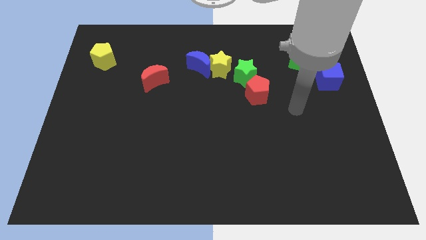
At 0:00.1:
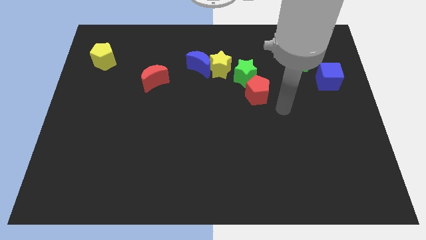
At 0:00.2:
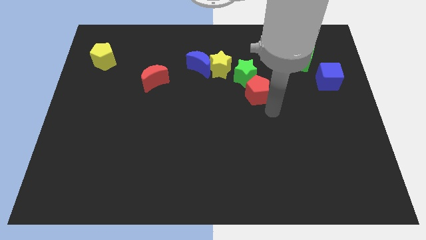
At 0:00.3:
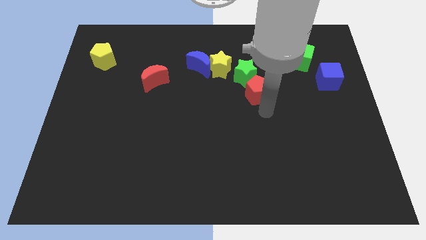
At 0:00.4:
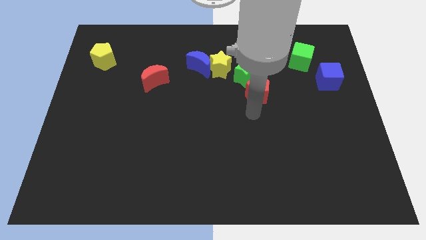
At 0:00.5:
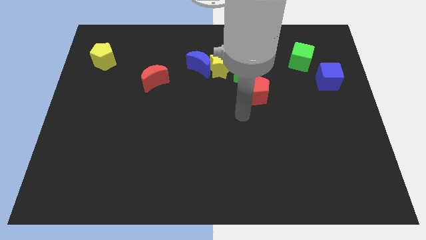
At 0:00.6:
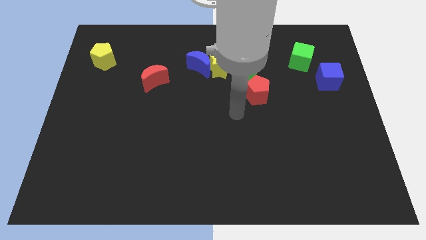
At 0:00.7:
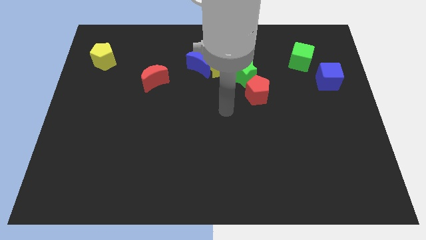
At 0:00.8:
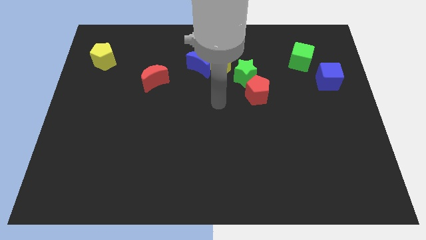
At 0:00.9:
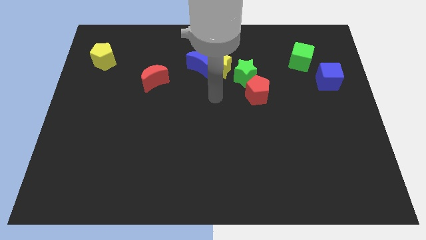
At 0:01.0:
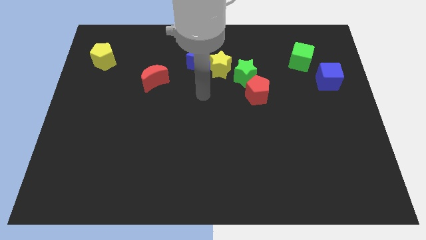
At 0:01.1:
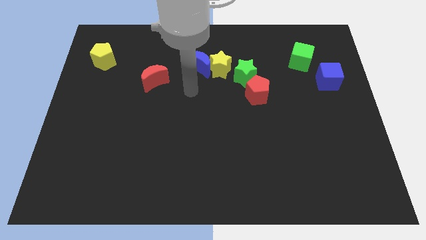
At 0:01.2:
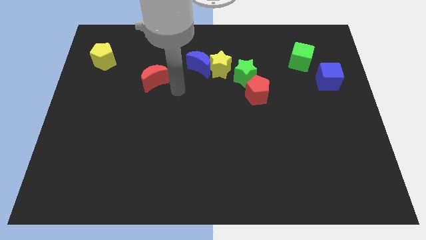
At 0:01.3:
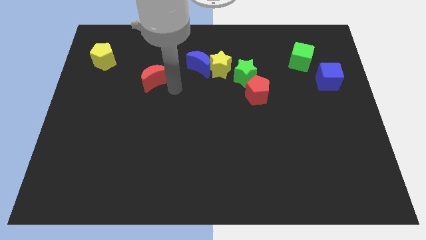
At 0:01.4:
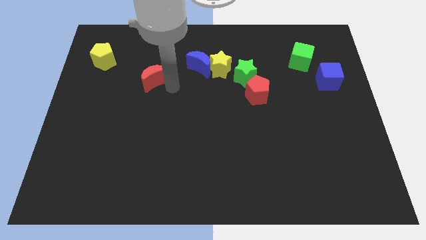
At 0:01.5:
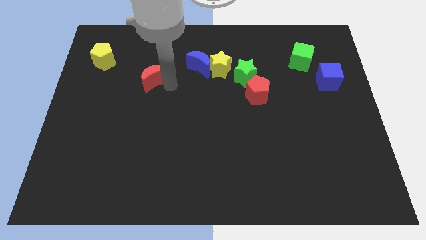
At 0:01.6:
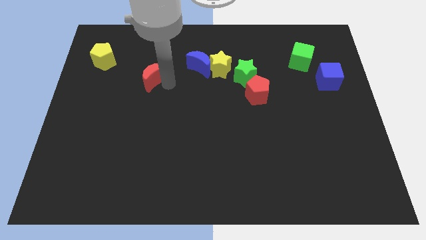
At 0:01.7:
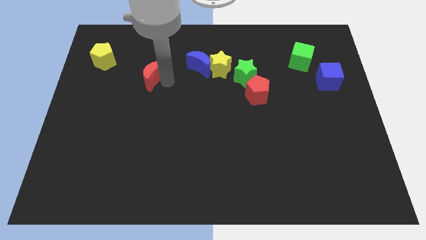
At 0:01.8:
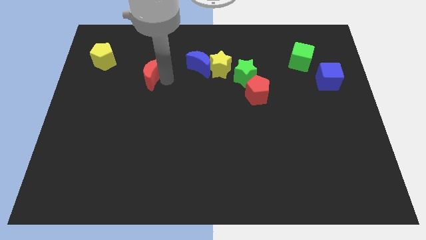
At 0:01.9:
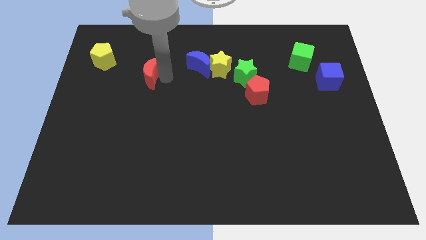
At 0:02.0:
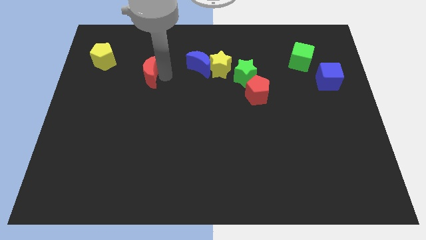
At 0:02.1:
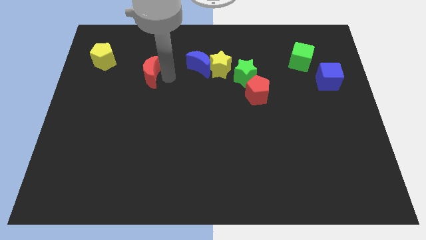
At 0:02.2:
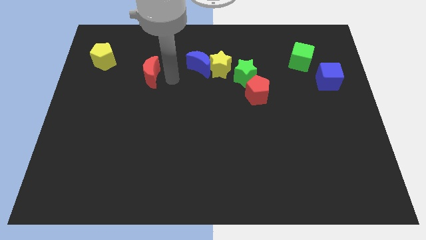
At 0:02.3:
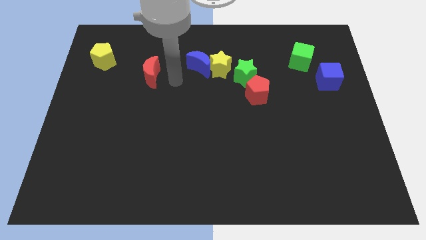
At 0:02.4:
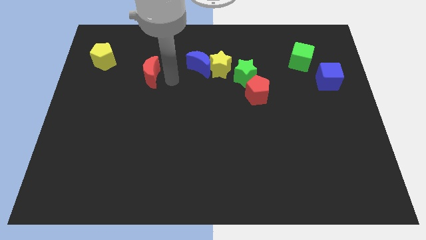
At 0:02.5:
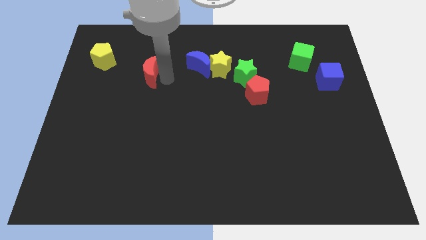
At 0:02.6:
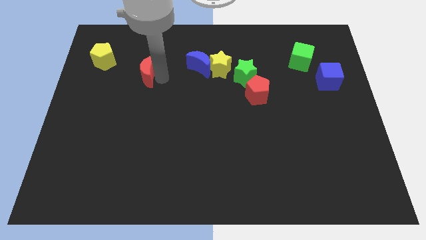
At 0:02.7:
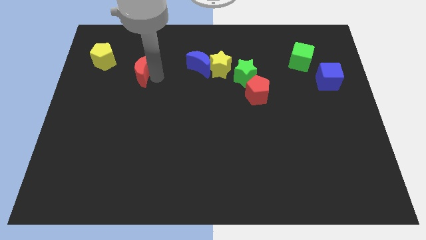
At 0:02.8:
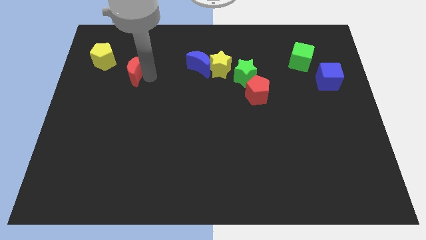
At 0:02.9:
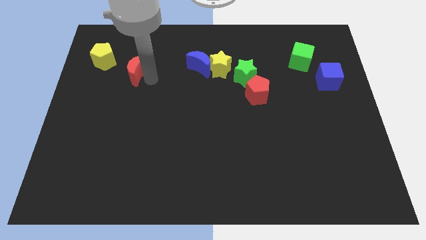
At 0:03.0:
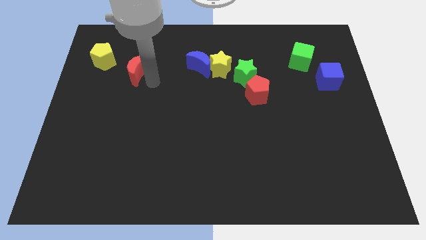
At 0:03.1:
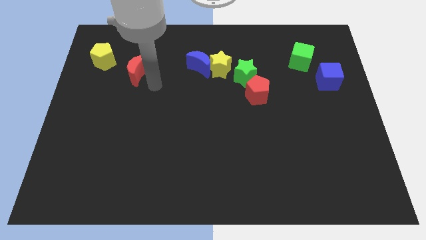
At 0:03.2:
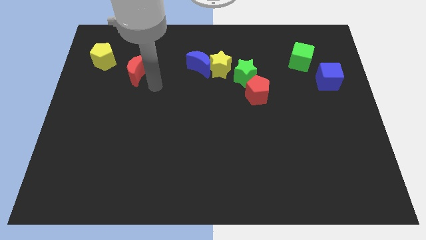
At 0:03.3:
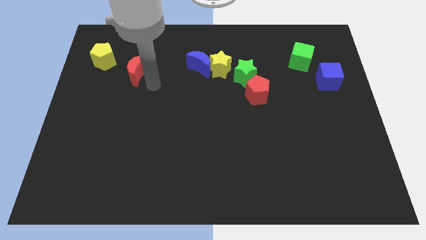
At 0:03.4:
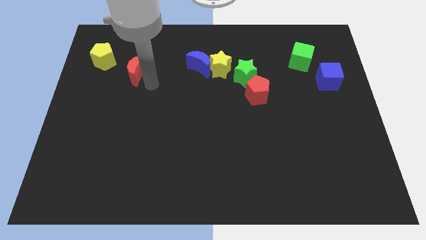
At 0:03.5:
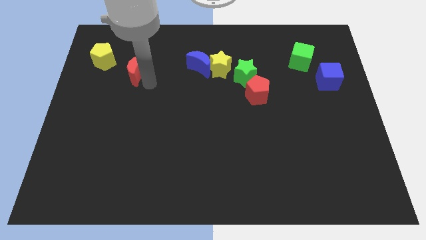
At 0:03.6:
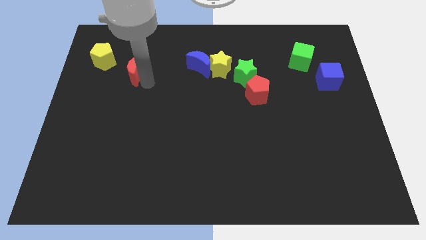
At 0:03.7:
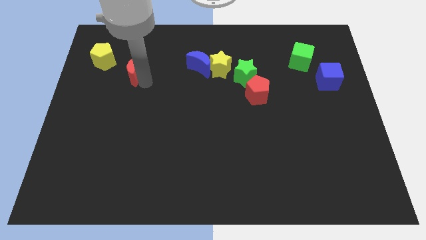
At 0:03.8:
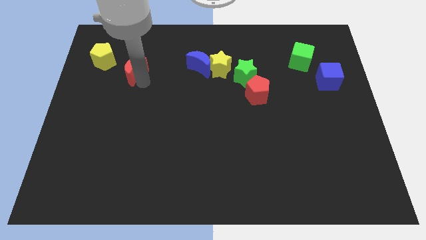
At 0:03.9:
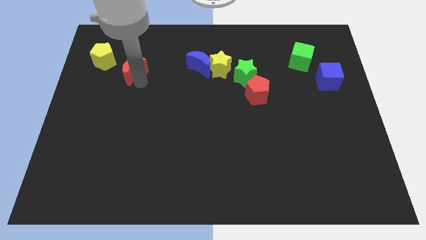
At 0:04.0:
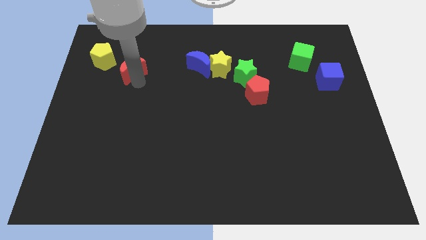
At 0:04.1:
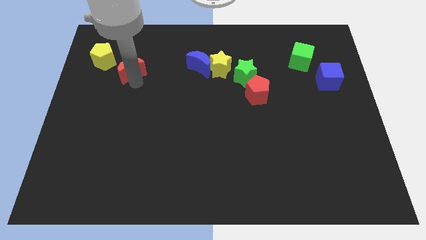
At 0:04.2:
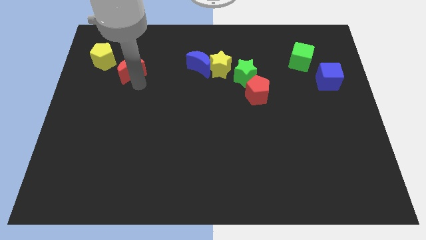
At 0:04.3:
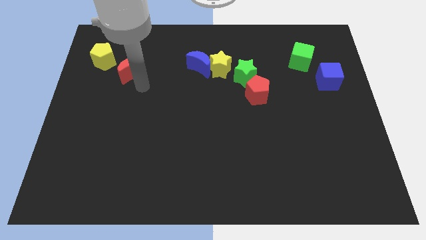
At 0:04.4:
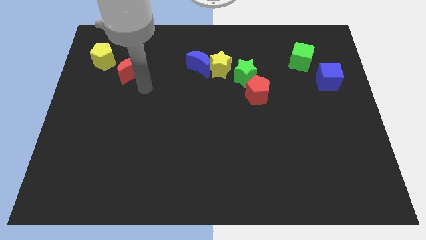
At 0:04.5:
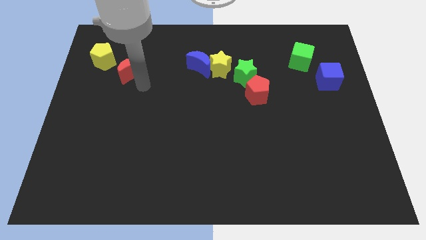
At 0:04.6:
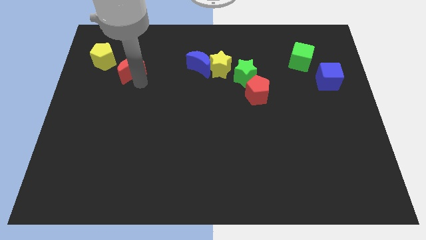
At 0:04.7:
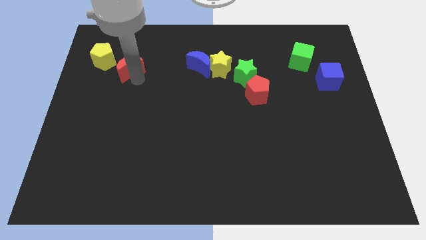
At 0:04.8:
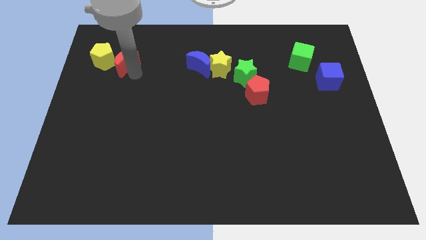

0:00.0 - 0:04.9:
push the red moon to the yellow pentagon

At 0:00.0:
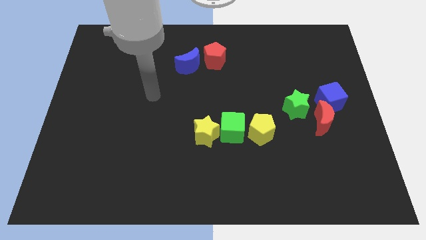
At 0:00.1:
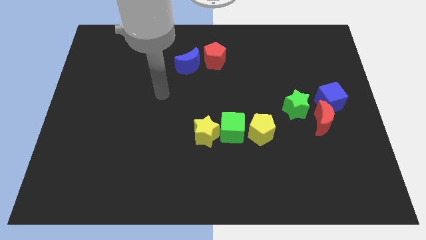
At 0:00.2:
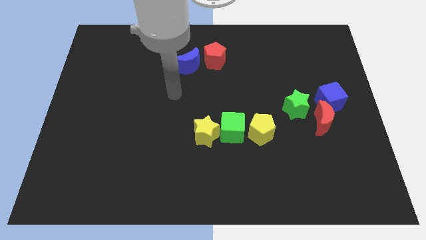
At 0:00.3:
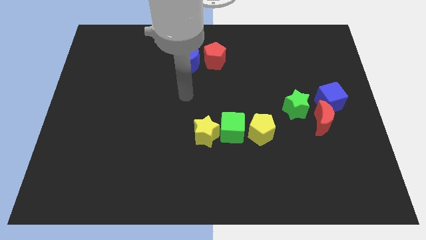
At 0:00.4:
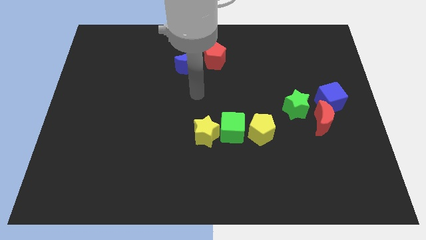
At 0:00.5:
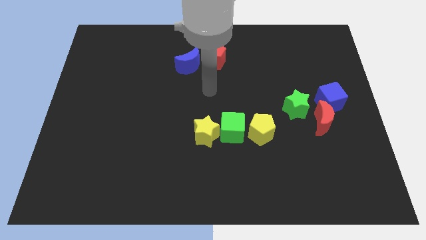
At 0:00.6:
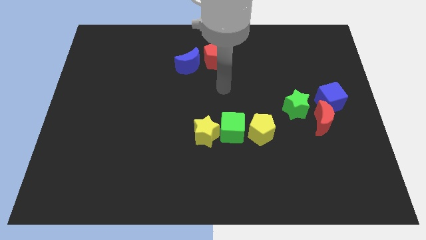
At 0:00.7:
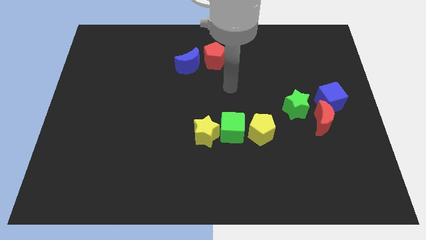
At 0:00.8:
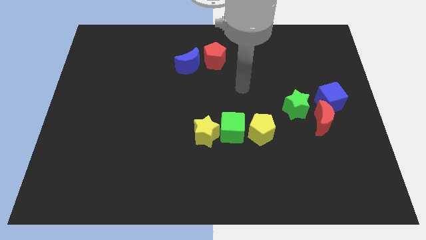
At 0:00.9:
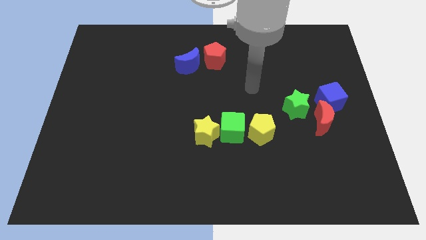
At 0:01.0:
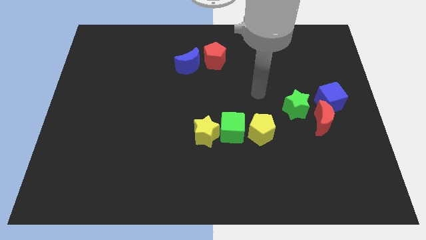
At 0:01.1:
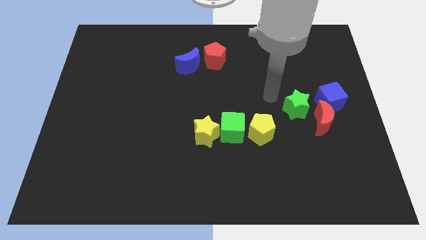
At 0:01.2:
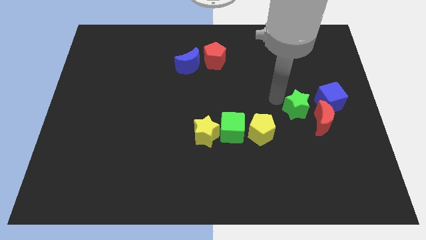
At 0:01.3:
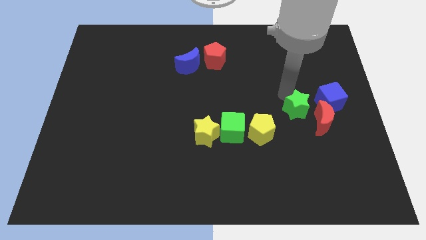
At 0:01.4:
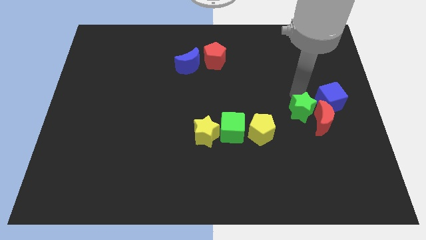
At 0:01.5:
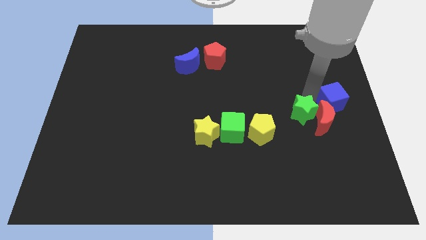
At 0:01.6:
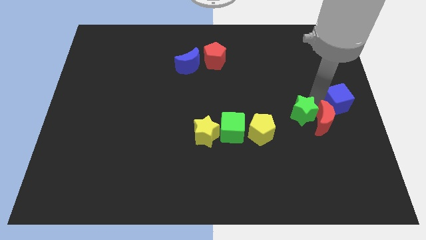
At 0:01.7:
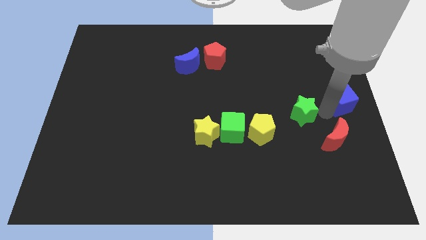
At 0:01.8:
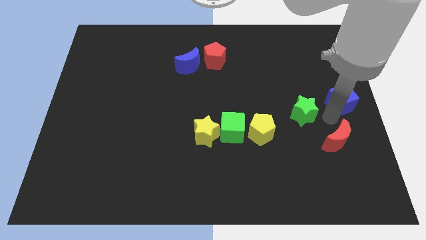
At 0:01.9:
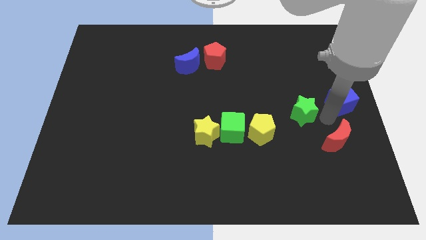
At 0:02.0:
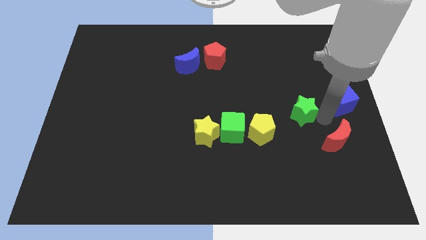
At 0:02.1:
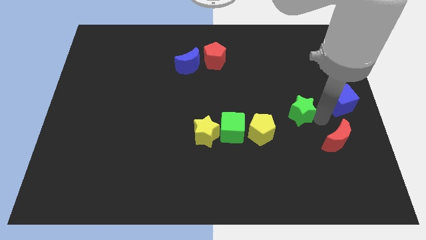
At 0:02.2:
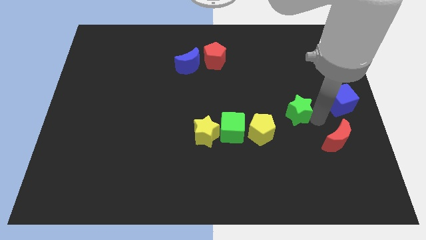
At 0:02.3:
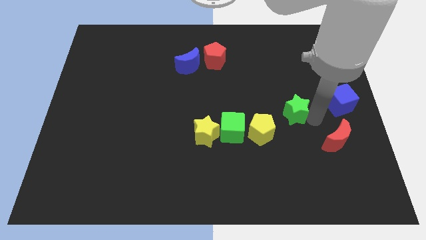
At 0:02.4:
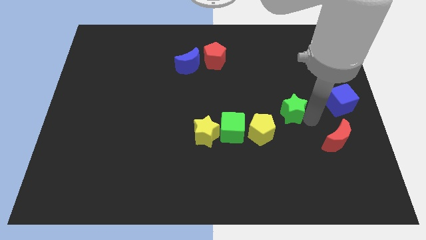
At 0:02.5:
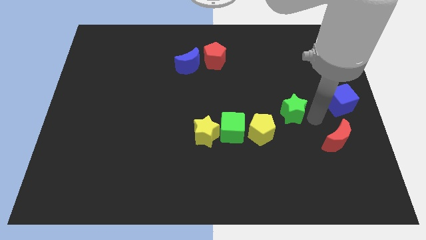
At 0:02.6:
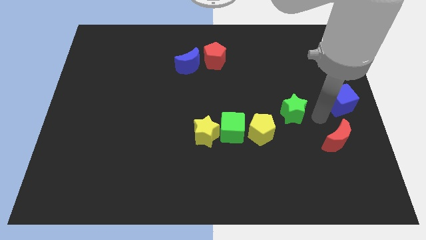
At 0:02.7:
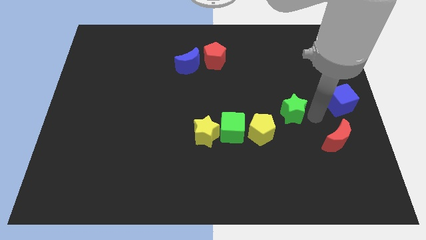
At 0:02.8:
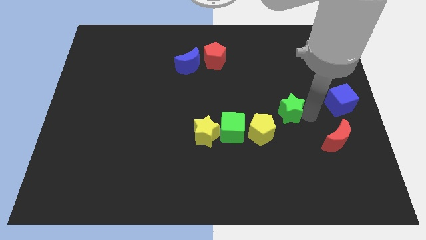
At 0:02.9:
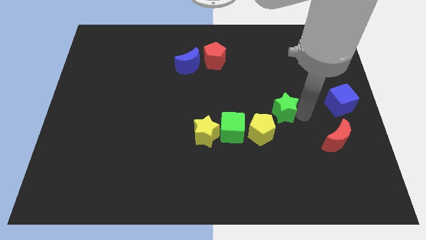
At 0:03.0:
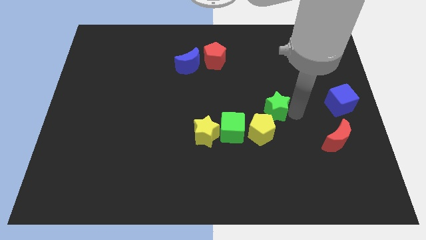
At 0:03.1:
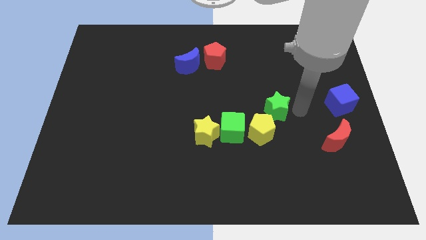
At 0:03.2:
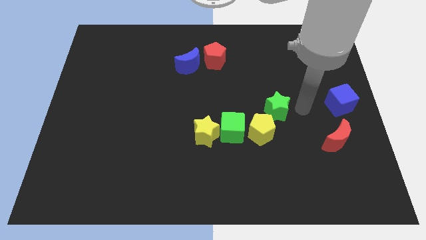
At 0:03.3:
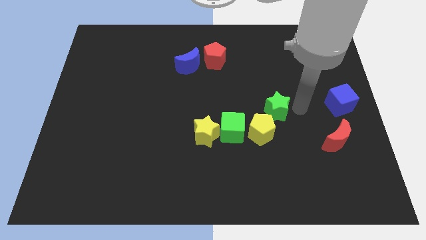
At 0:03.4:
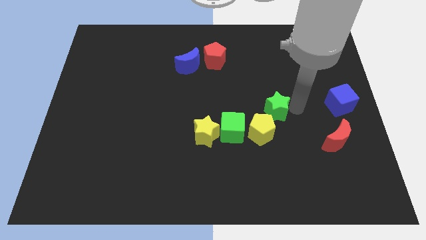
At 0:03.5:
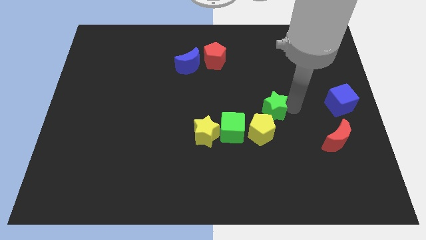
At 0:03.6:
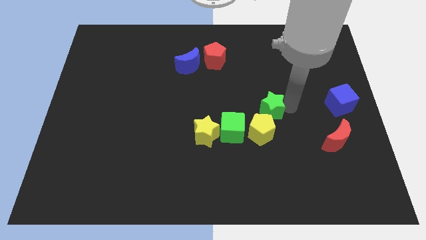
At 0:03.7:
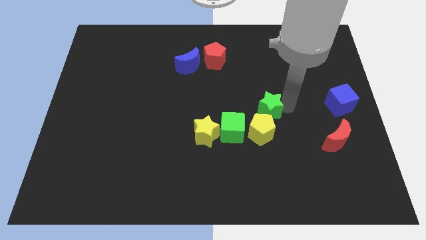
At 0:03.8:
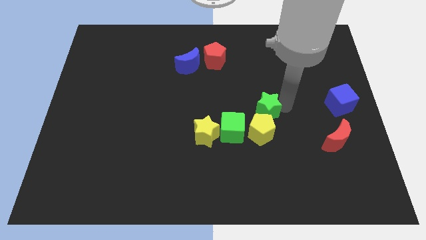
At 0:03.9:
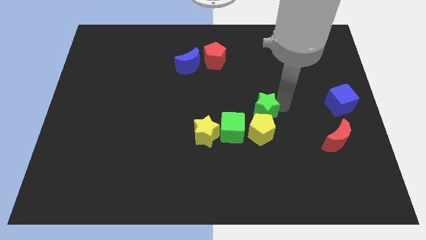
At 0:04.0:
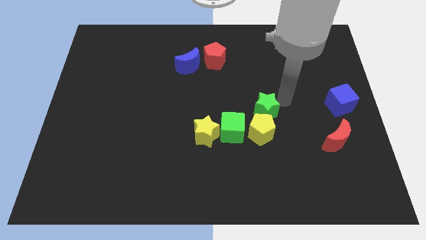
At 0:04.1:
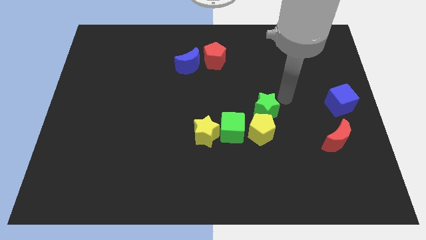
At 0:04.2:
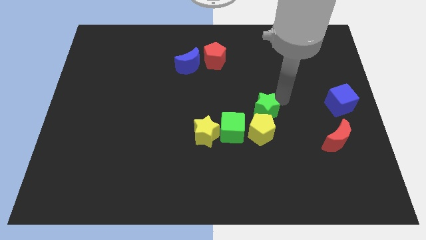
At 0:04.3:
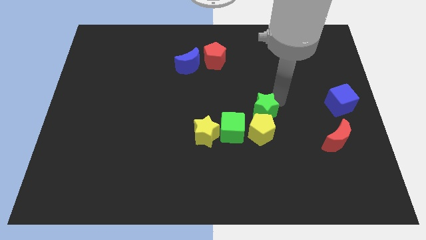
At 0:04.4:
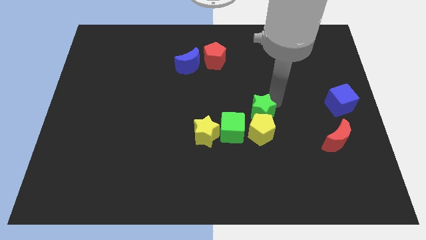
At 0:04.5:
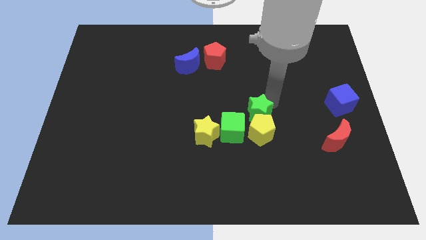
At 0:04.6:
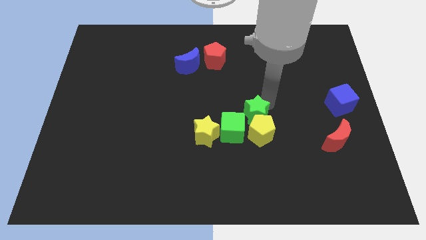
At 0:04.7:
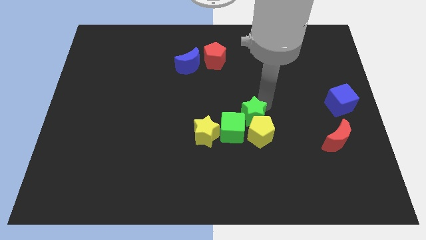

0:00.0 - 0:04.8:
push the green star towards the green cube
